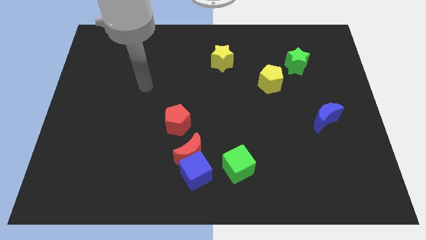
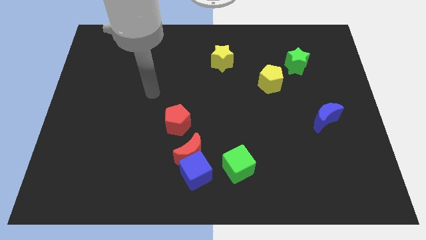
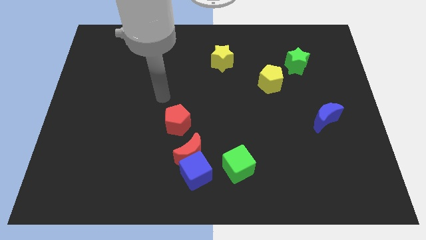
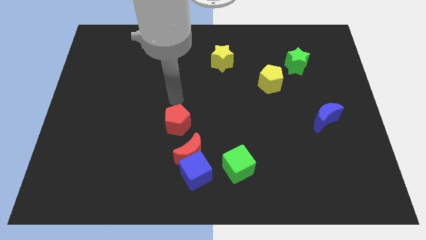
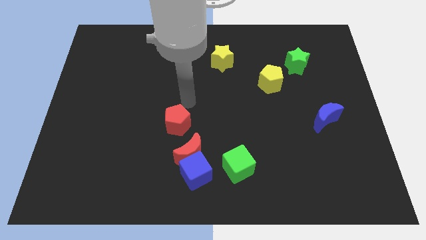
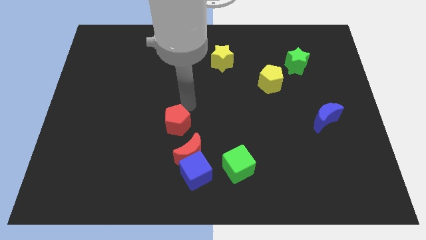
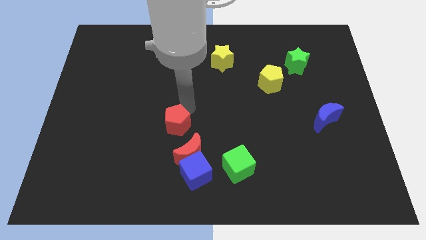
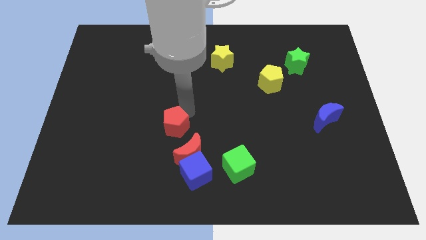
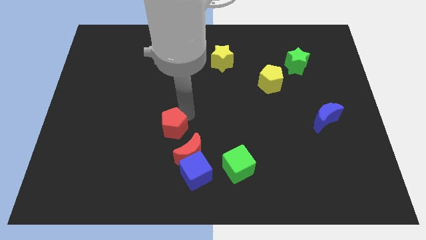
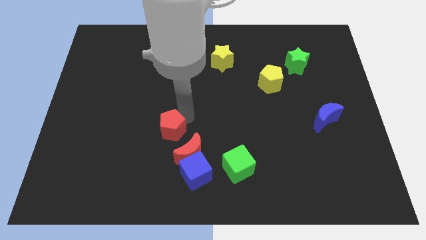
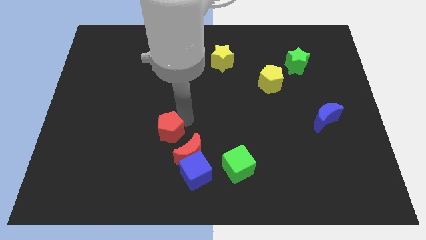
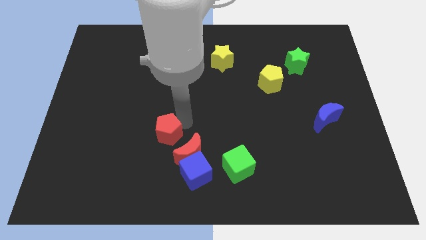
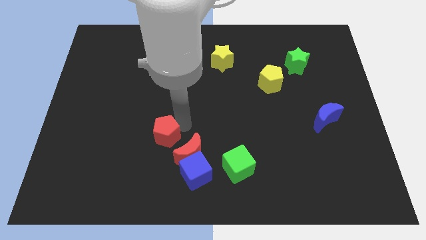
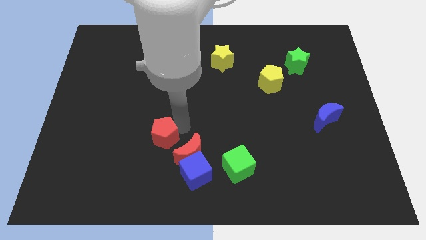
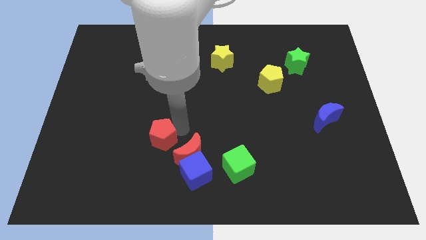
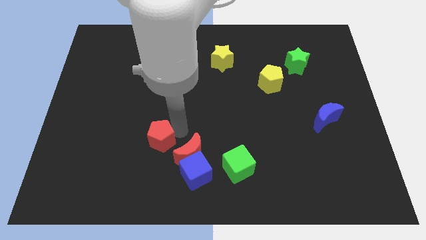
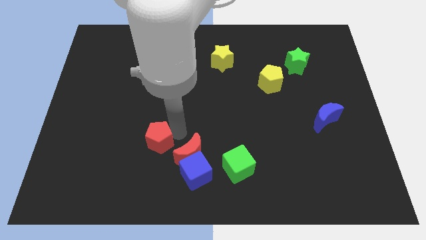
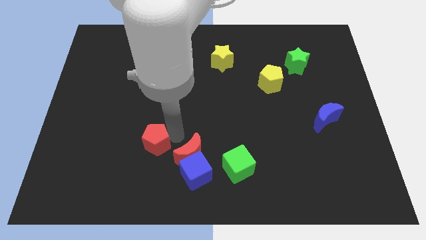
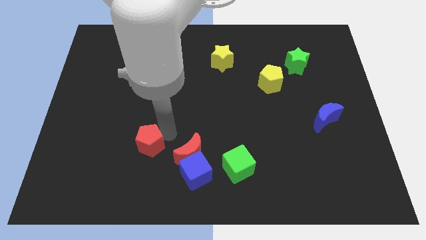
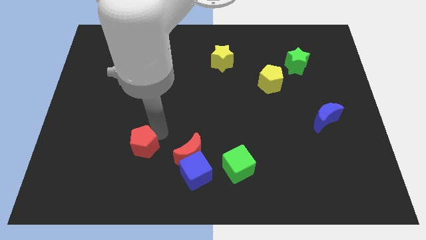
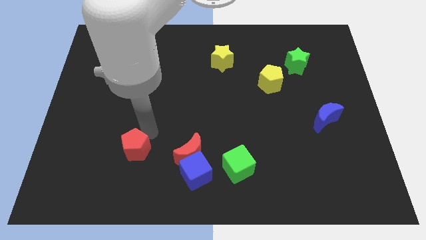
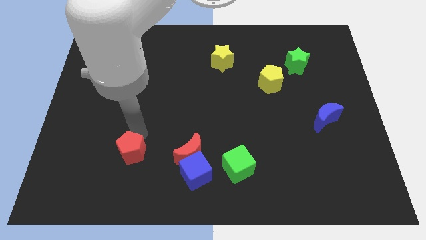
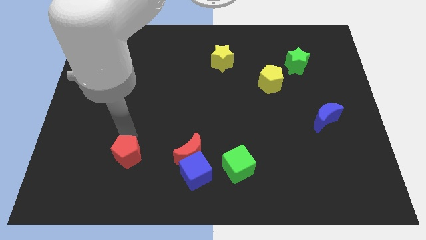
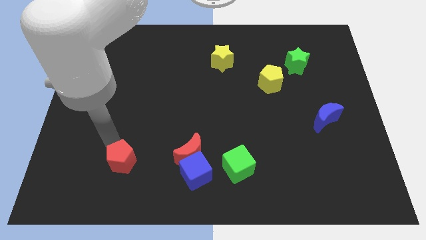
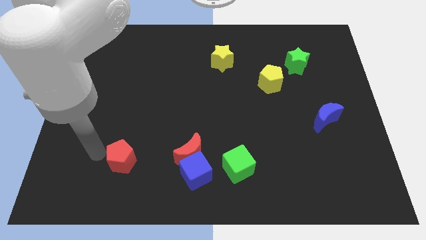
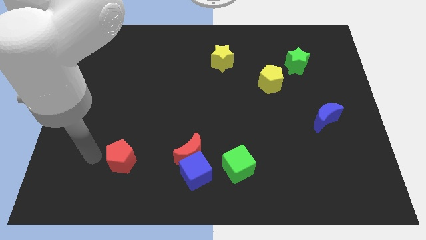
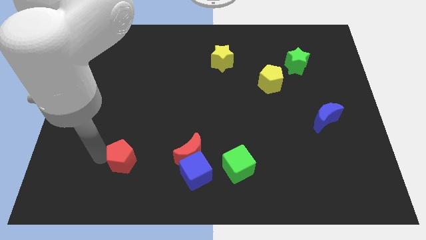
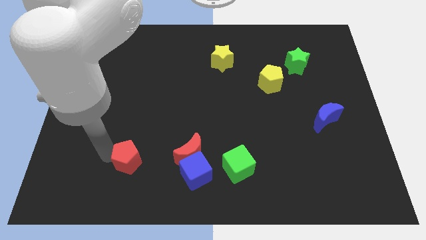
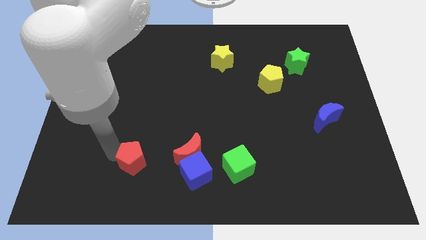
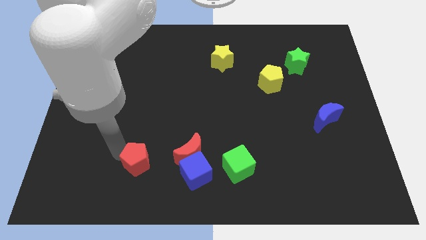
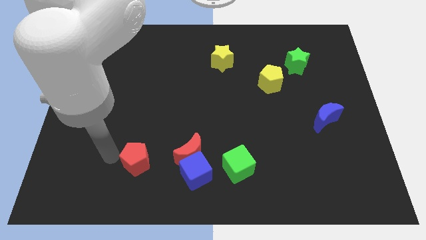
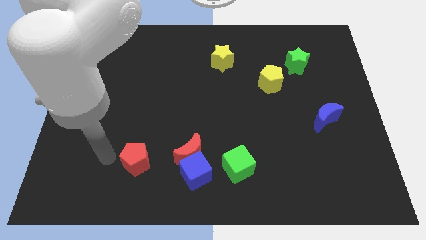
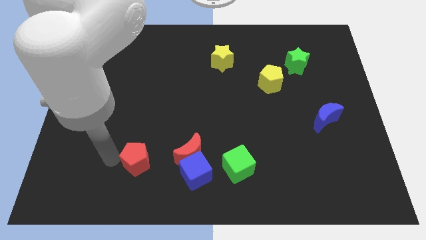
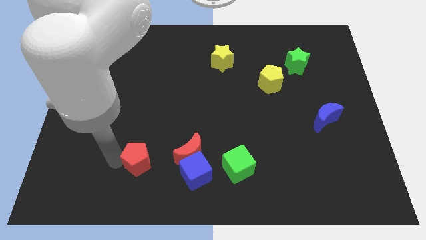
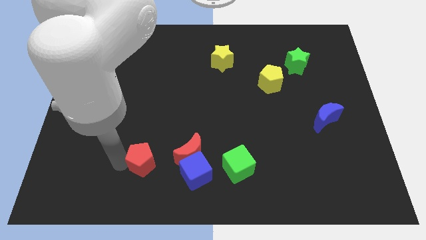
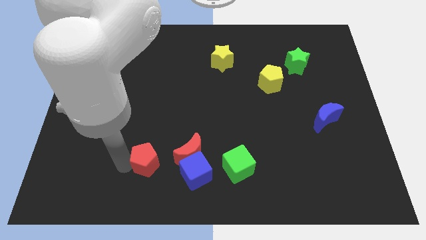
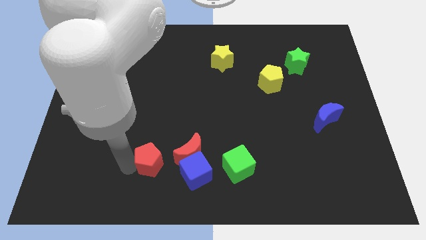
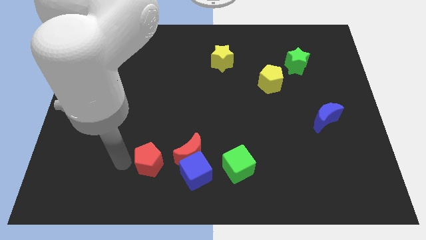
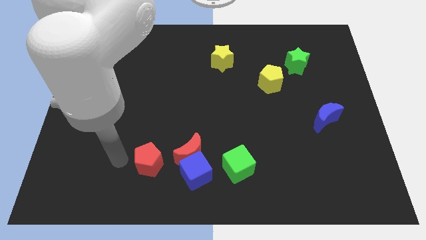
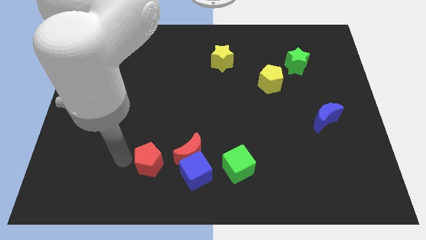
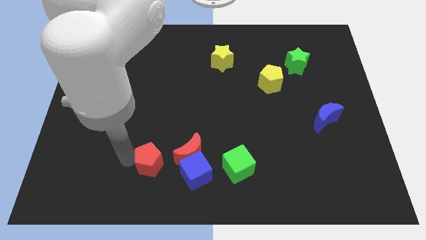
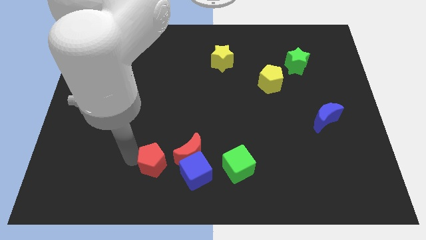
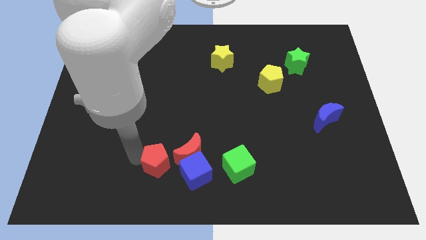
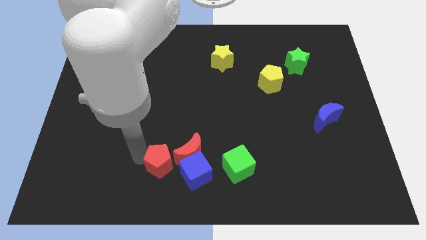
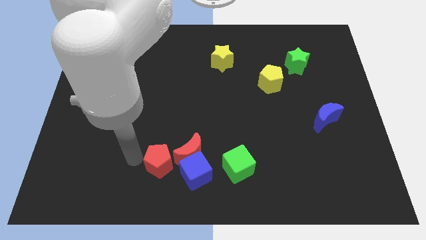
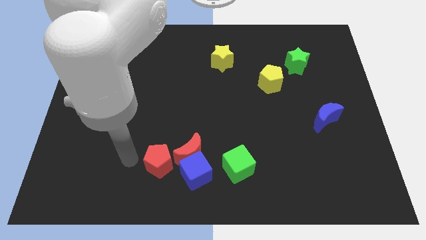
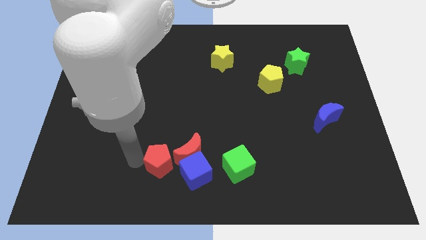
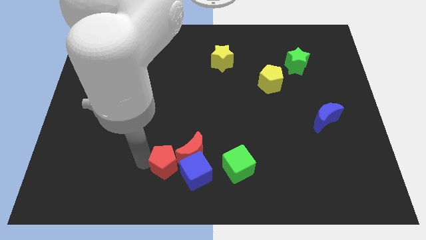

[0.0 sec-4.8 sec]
push the red pentagon to the left side of the green cube

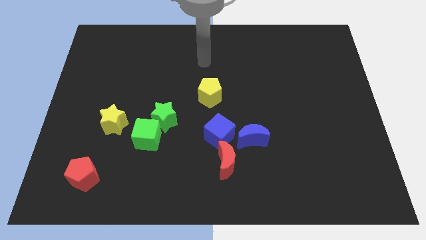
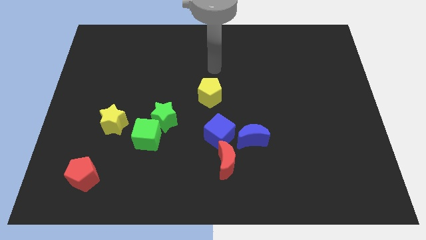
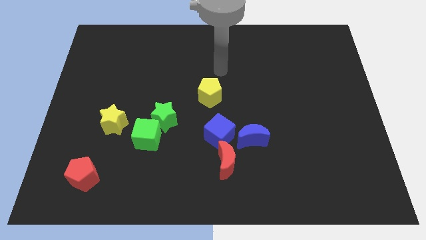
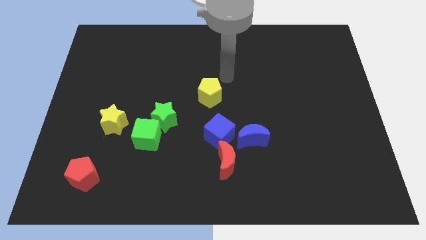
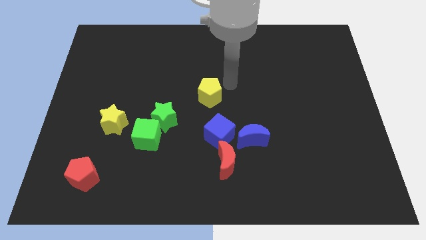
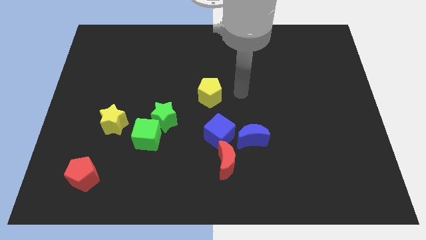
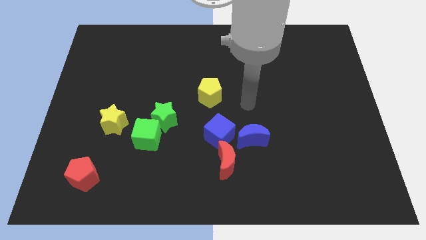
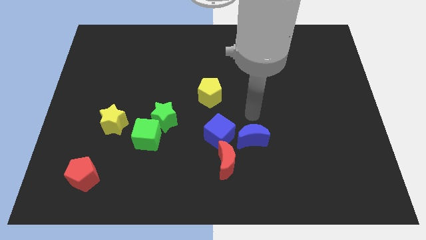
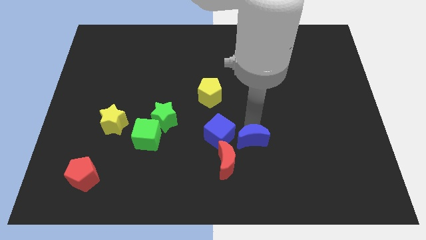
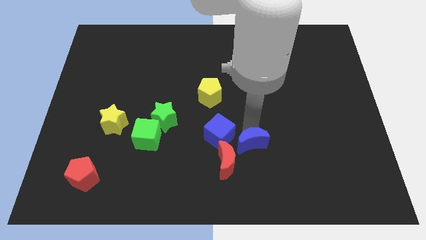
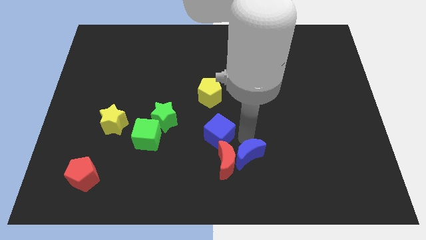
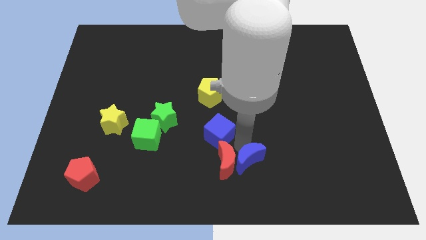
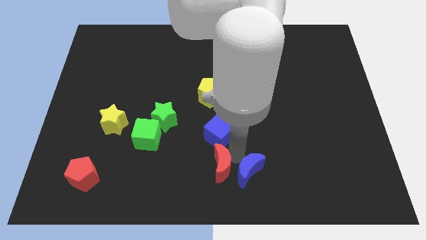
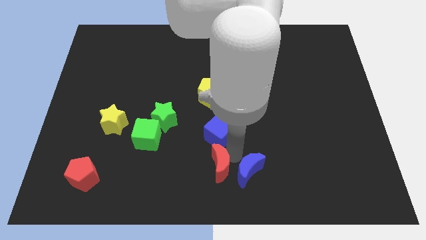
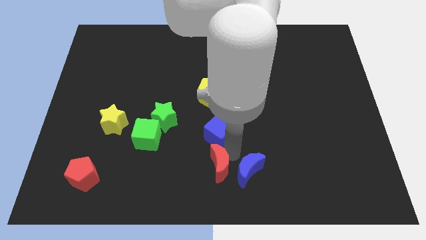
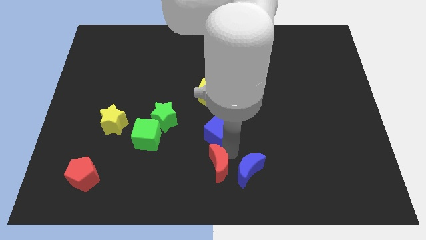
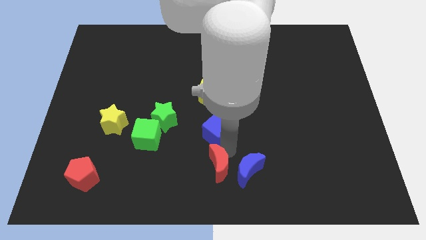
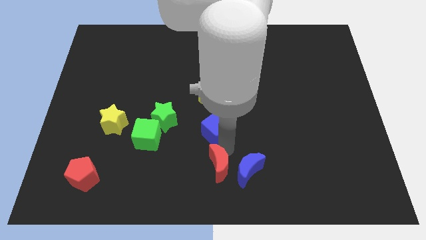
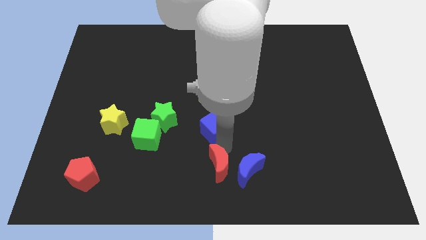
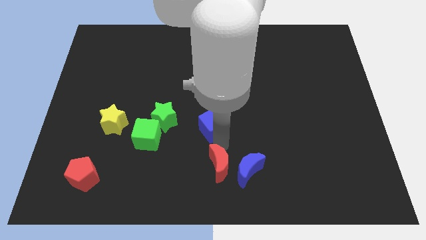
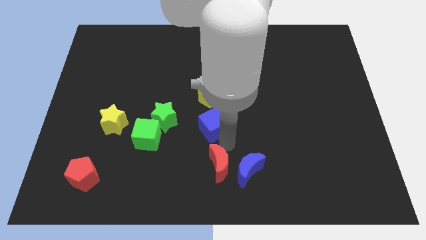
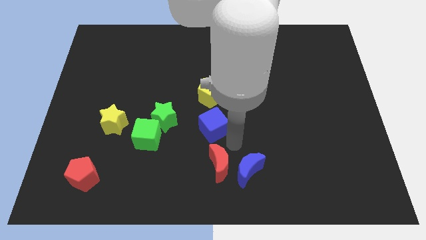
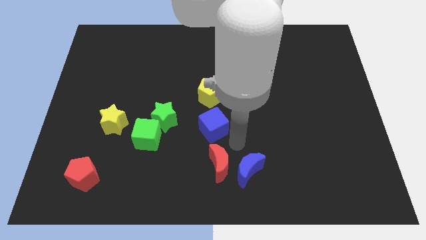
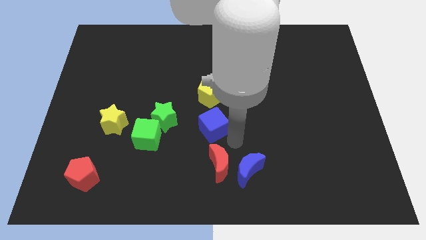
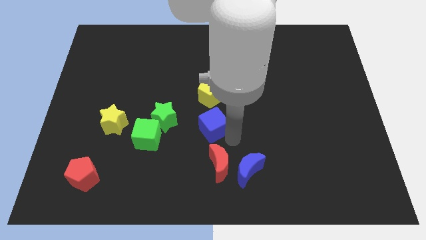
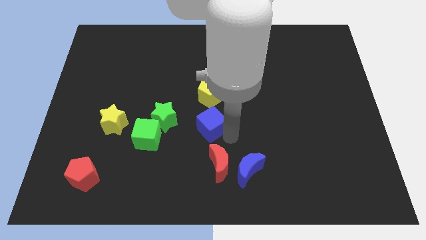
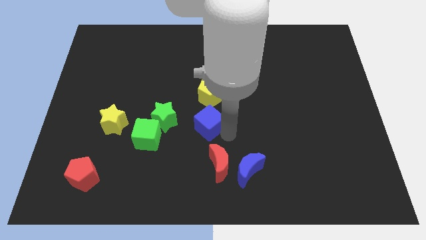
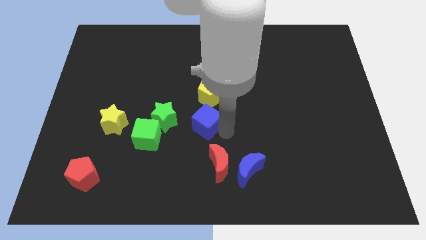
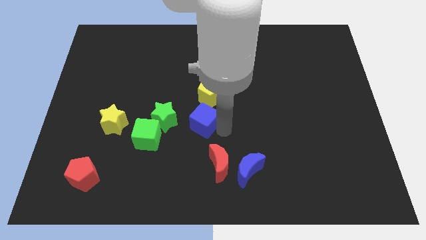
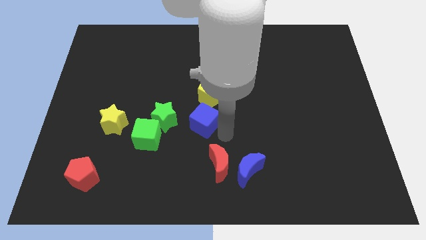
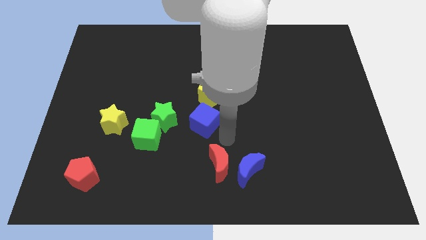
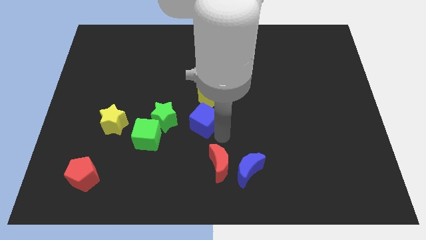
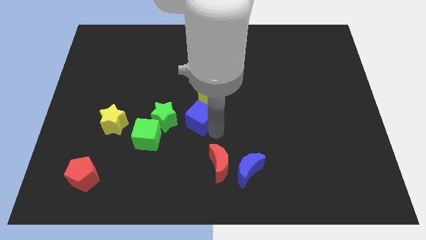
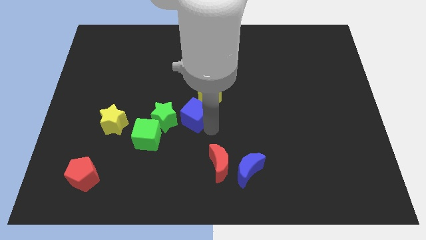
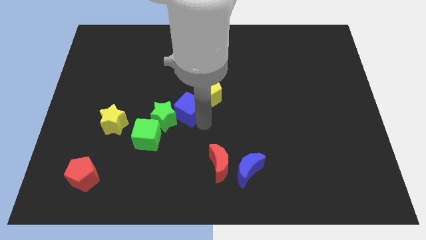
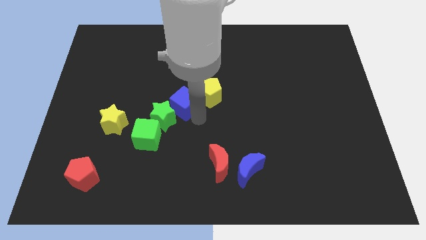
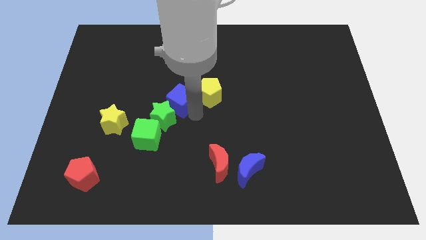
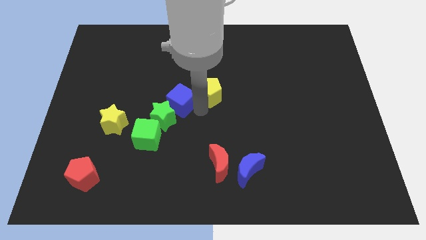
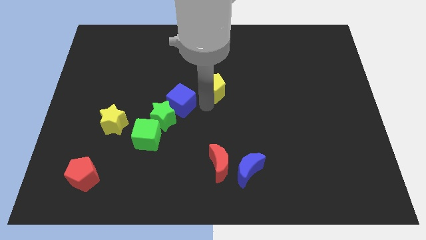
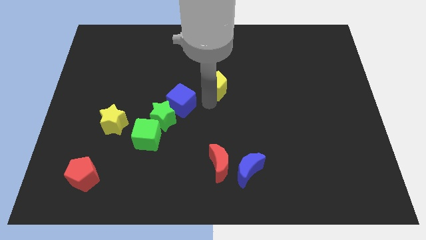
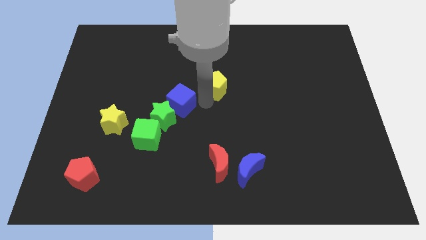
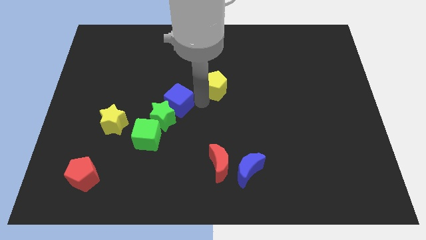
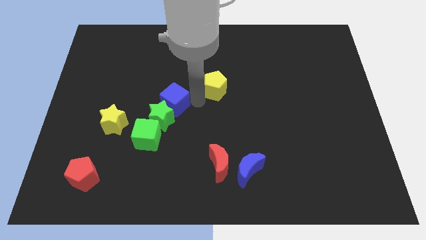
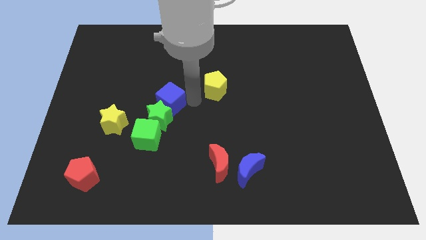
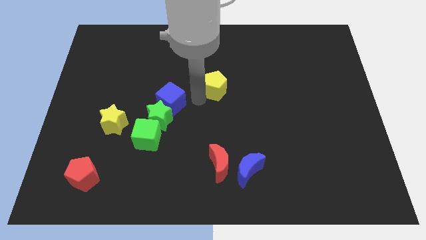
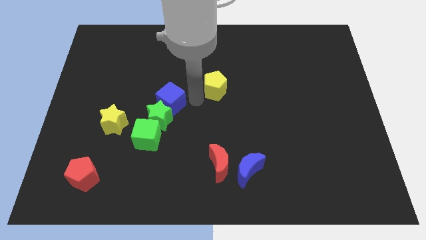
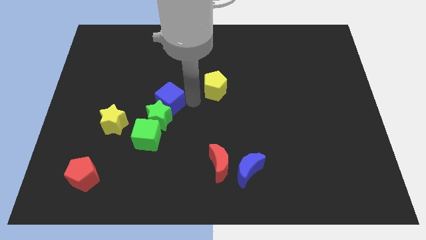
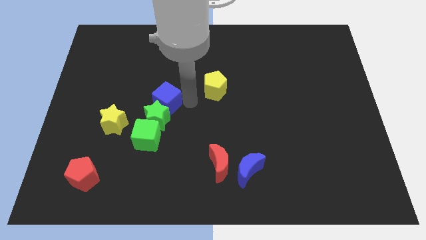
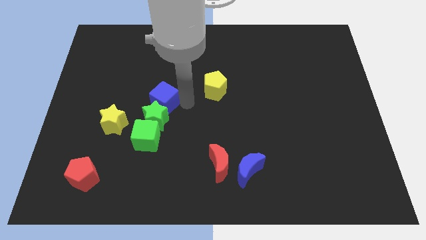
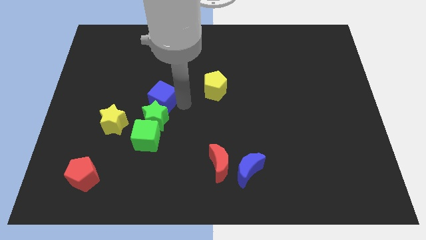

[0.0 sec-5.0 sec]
push the blue cube to the top right side of the yellow star
